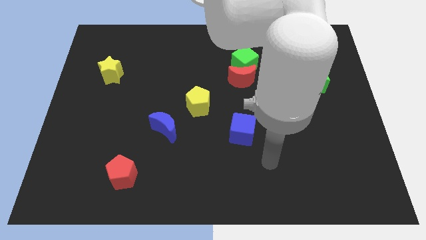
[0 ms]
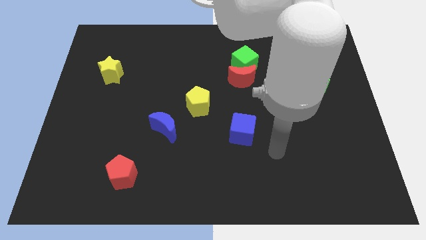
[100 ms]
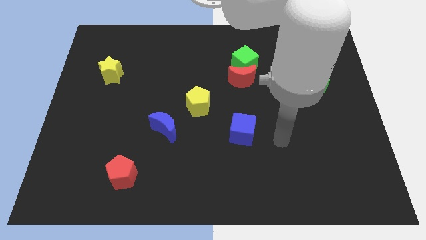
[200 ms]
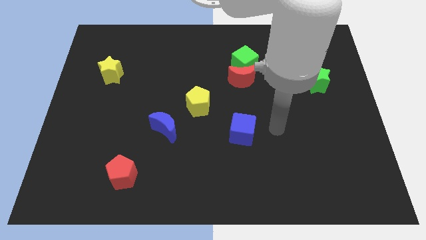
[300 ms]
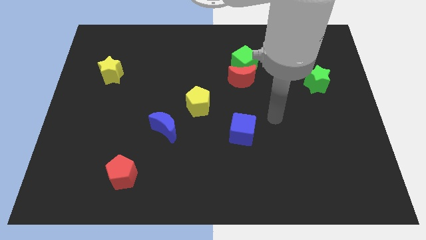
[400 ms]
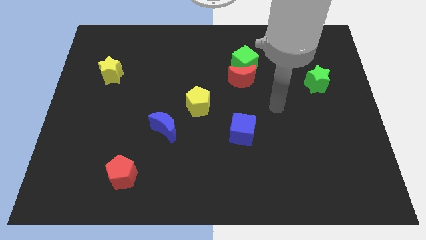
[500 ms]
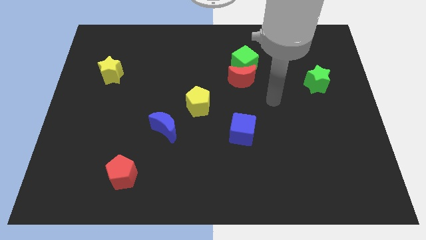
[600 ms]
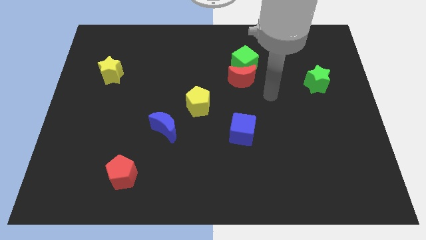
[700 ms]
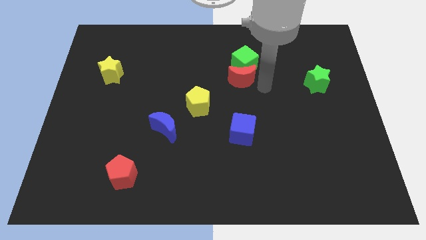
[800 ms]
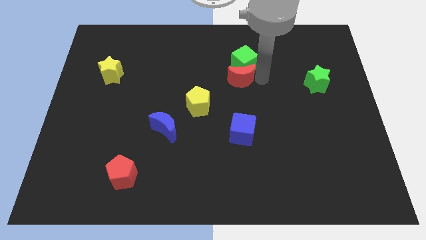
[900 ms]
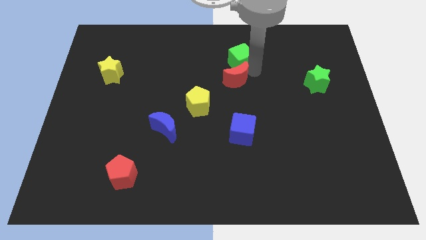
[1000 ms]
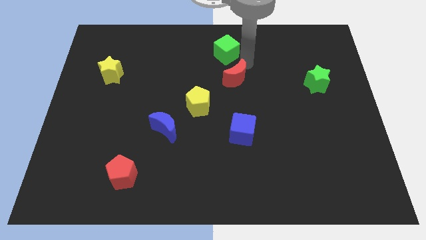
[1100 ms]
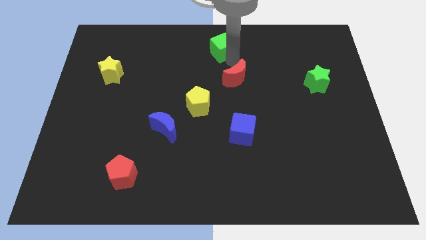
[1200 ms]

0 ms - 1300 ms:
move the red moon away from the green cube

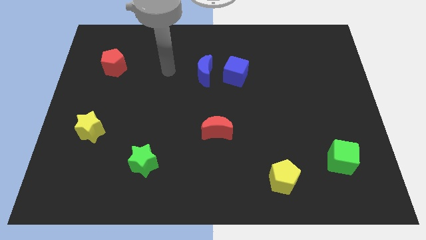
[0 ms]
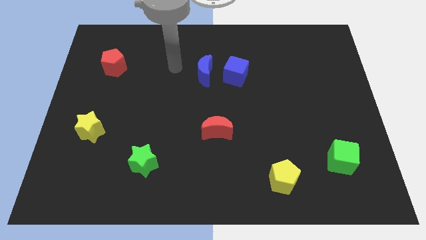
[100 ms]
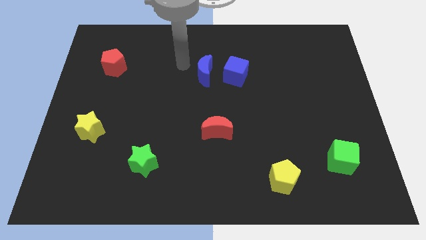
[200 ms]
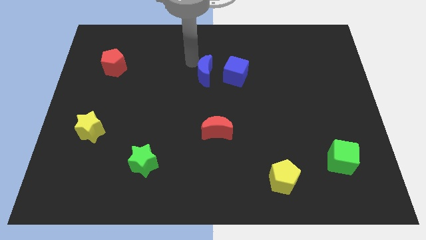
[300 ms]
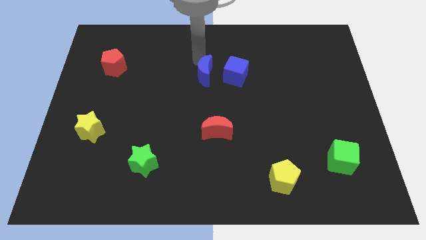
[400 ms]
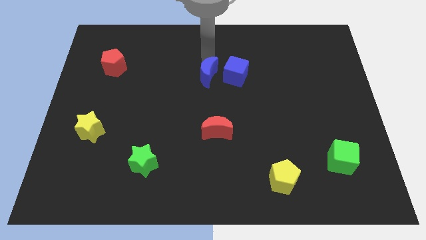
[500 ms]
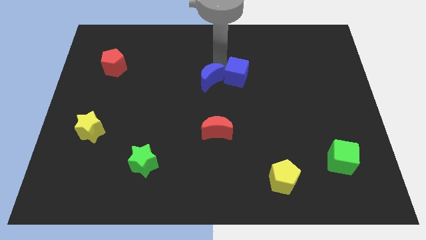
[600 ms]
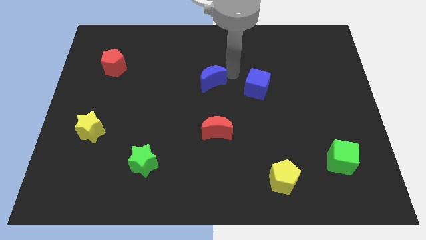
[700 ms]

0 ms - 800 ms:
separate the blue moon from the blue cube

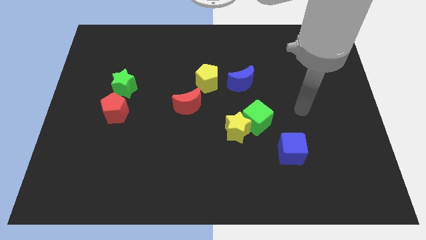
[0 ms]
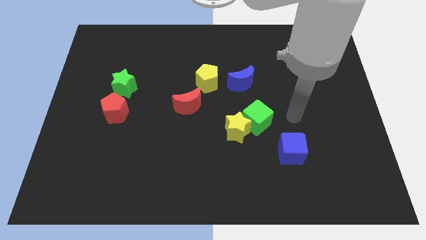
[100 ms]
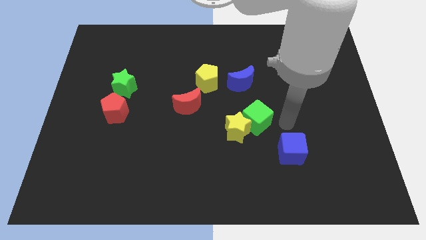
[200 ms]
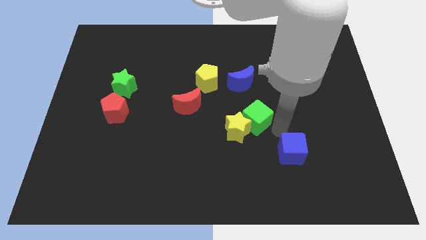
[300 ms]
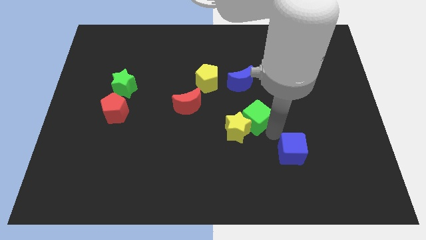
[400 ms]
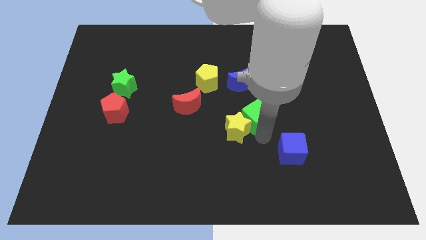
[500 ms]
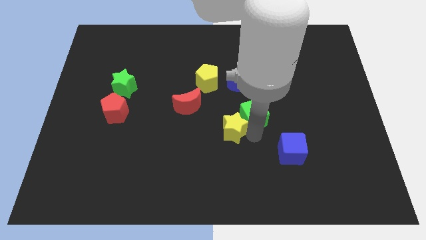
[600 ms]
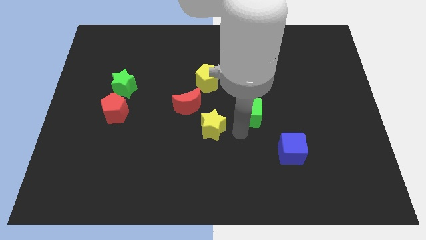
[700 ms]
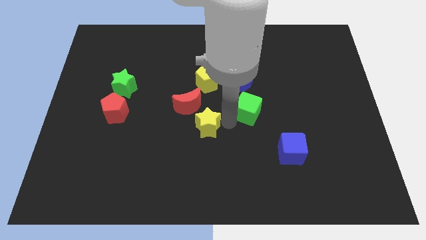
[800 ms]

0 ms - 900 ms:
pull the green cube apart from the yellow star

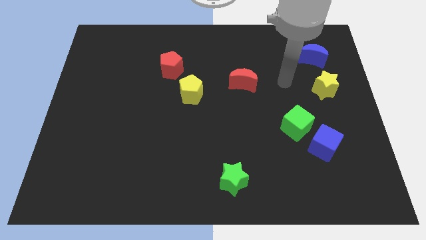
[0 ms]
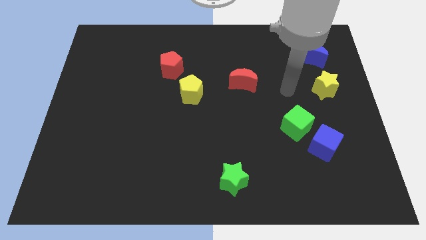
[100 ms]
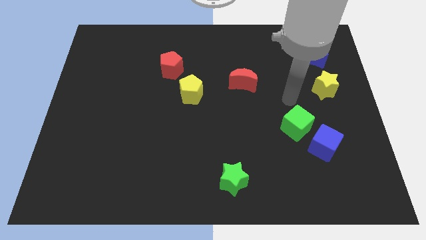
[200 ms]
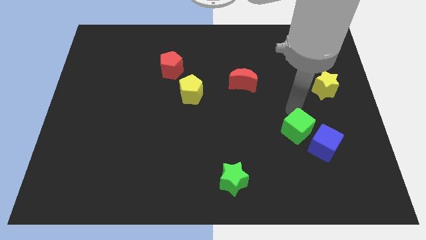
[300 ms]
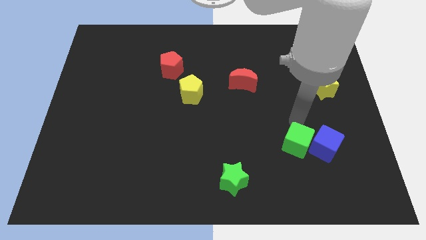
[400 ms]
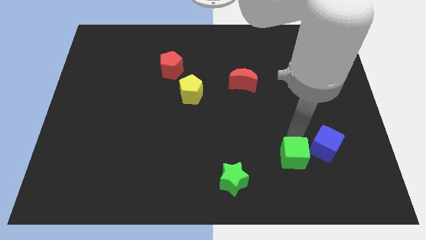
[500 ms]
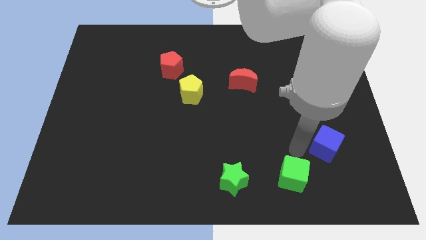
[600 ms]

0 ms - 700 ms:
pull the blue cube apart from the green cube

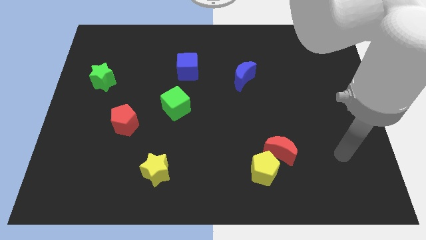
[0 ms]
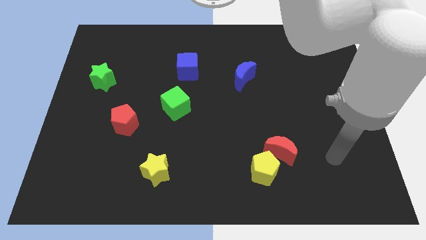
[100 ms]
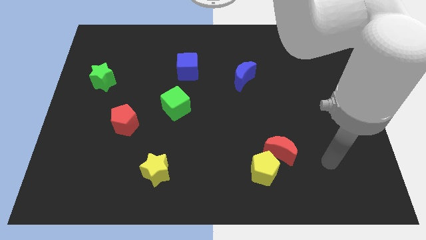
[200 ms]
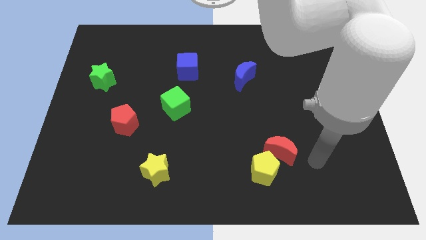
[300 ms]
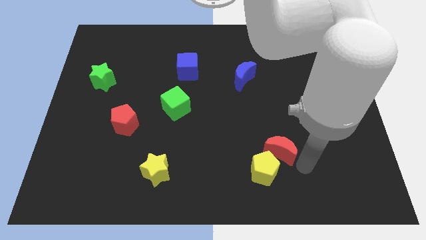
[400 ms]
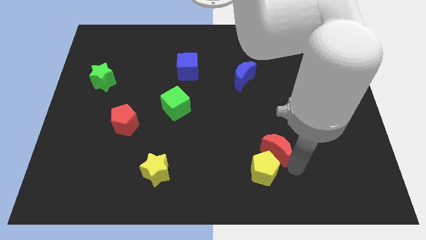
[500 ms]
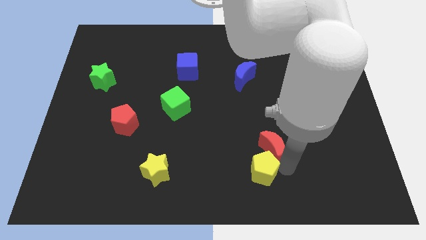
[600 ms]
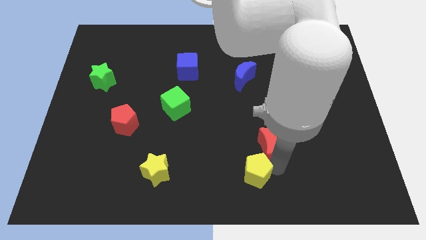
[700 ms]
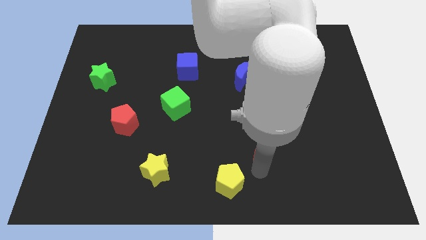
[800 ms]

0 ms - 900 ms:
move the red moon away from the yellow pentagon

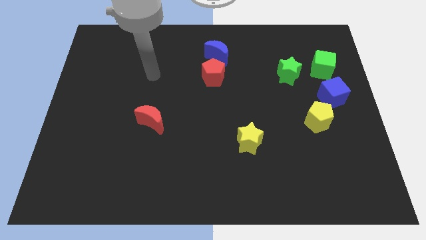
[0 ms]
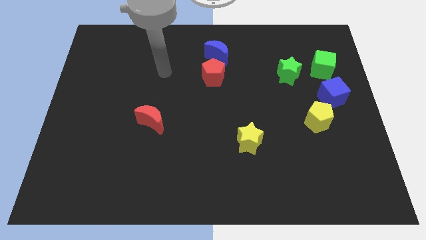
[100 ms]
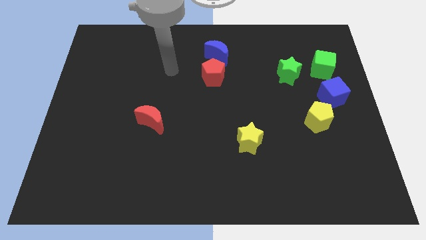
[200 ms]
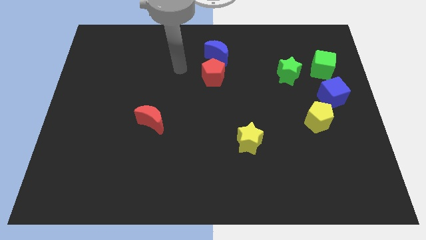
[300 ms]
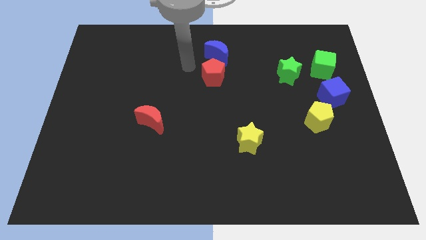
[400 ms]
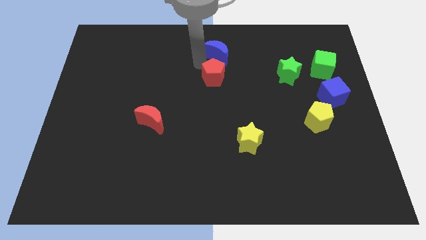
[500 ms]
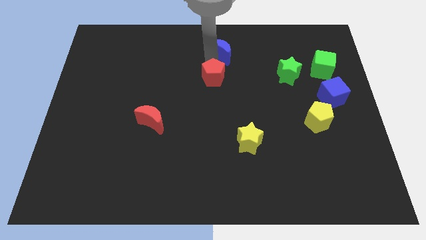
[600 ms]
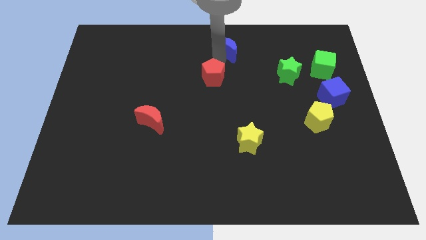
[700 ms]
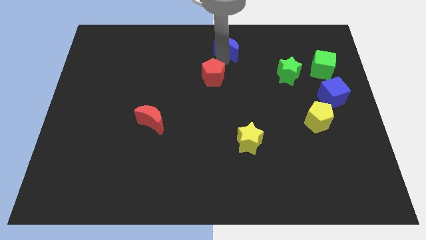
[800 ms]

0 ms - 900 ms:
move the red pentagon away from the blue moon

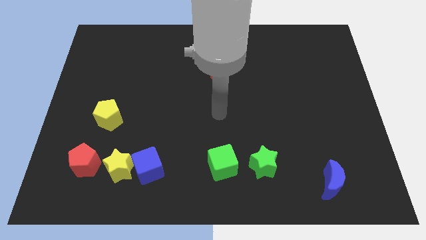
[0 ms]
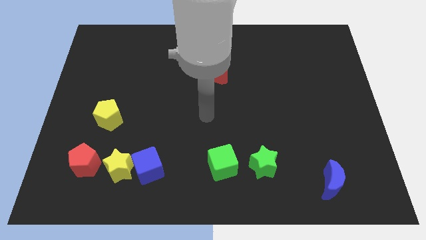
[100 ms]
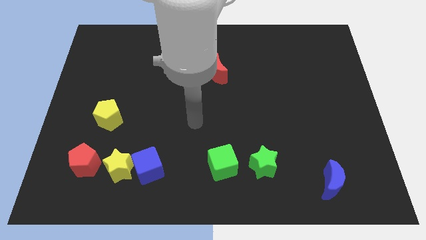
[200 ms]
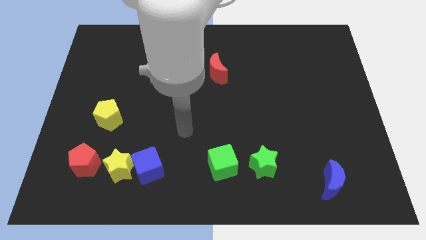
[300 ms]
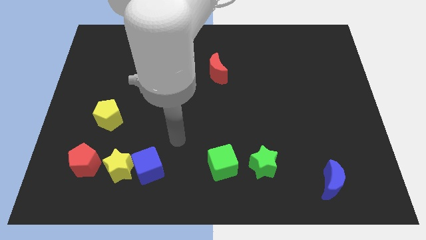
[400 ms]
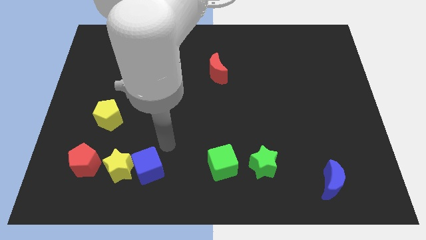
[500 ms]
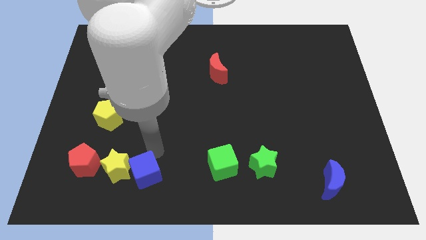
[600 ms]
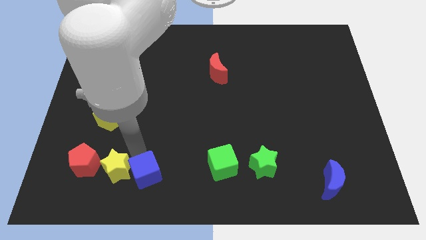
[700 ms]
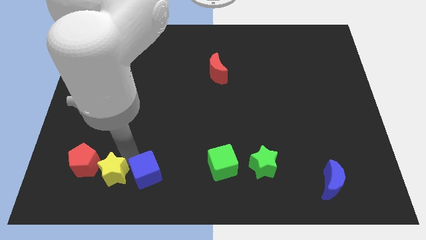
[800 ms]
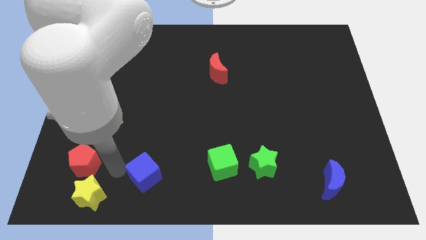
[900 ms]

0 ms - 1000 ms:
separate the blue cube from the yellow star

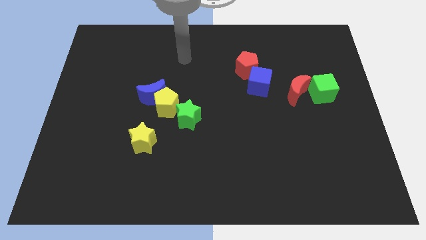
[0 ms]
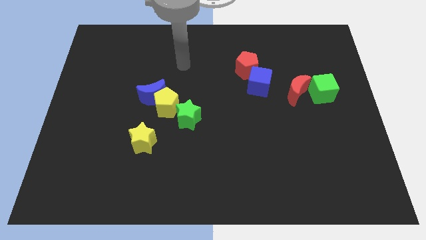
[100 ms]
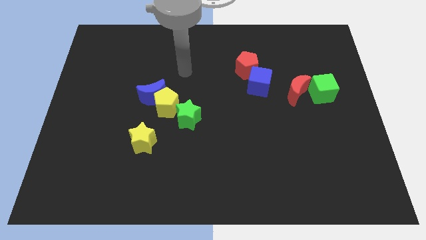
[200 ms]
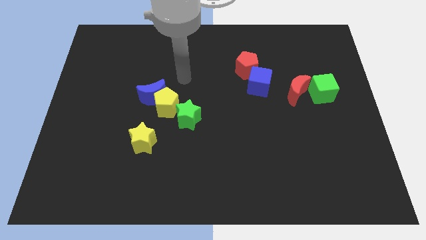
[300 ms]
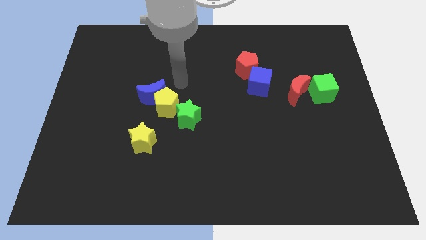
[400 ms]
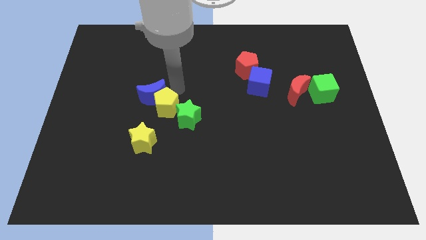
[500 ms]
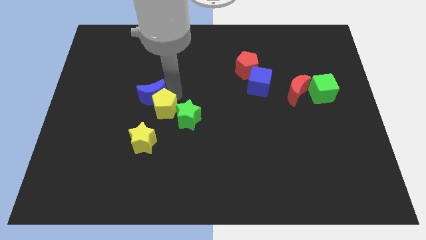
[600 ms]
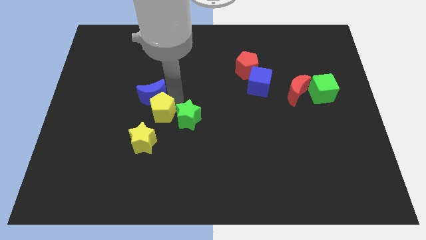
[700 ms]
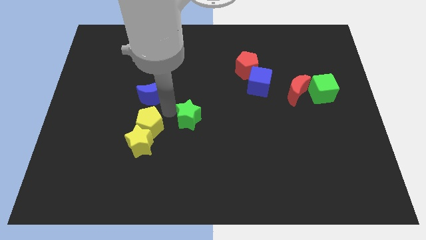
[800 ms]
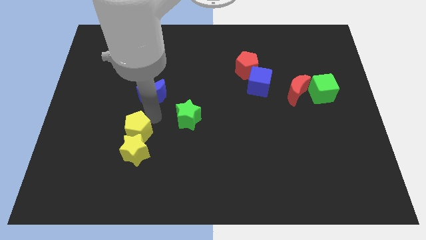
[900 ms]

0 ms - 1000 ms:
pull the blue moon apart from the yellow pentagon

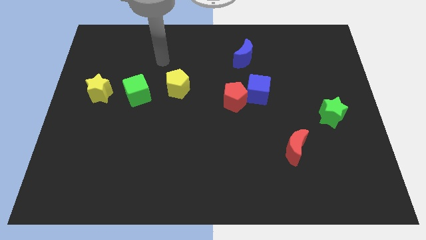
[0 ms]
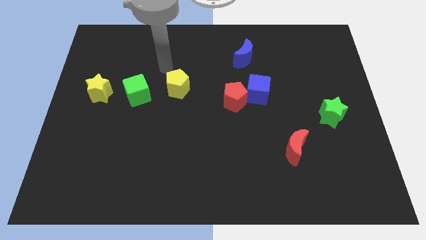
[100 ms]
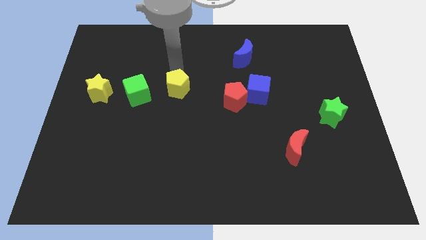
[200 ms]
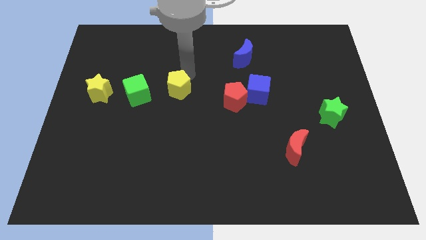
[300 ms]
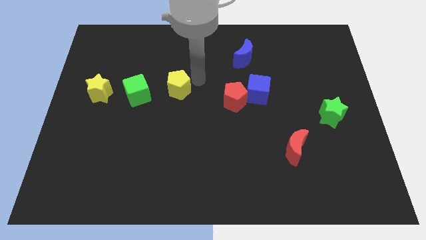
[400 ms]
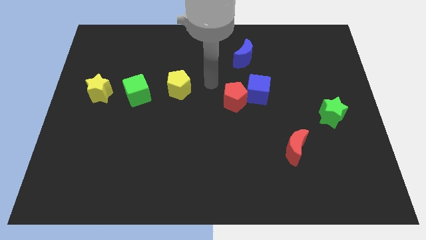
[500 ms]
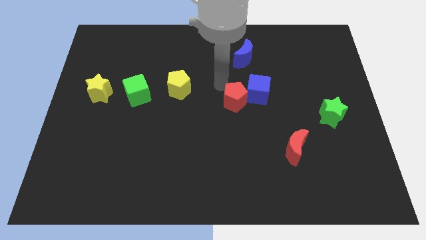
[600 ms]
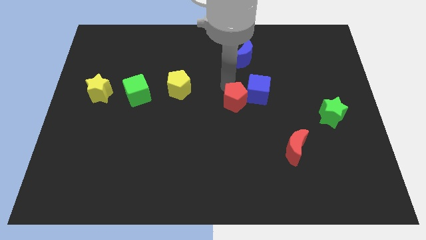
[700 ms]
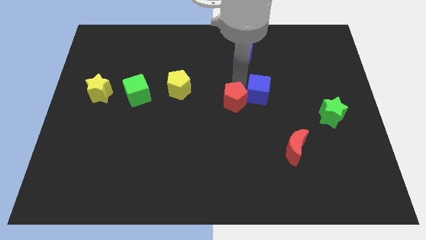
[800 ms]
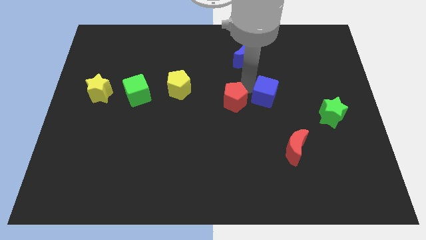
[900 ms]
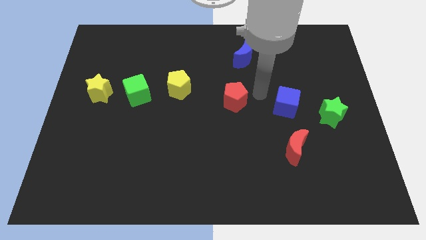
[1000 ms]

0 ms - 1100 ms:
pull the red pentagon apart from the blue cube

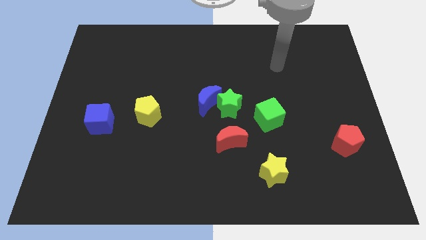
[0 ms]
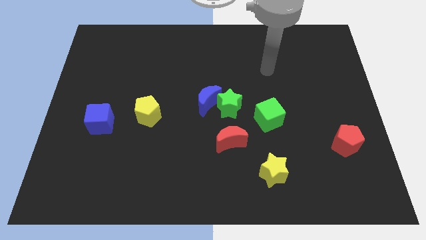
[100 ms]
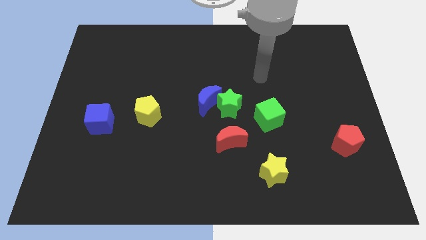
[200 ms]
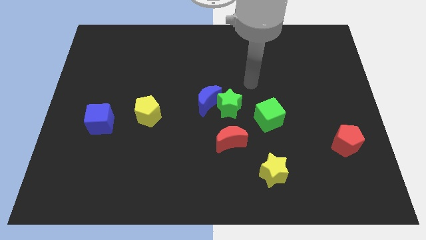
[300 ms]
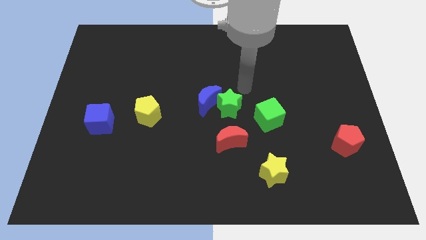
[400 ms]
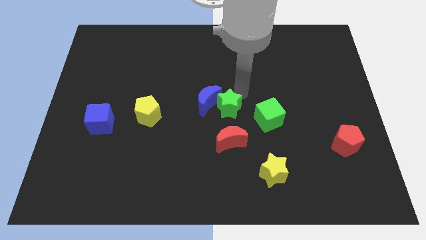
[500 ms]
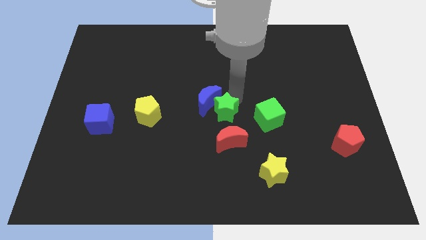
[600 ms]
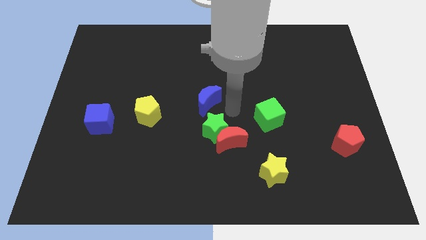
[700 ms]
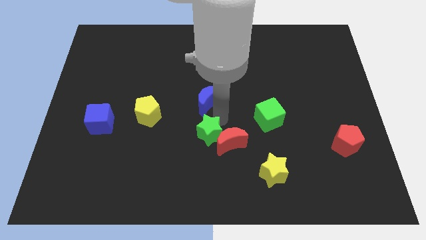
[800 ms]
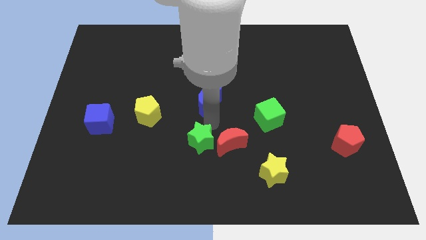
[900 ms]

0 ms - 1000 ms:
pull the blue moon apart from the green star
